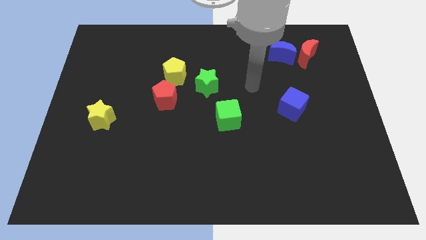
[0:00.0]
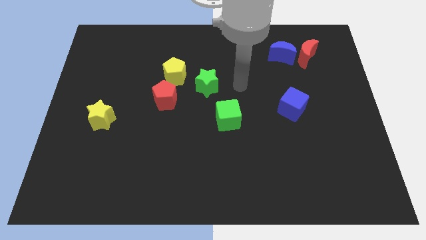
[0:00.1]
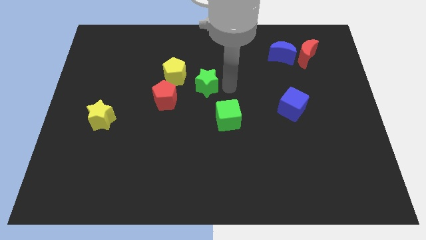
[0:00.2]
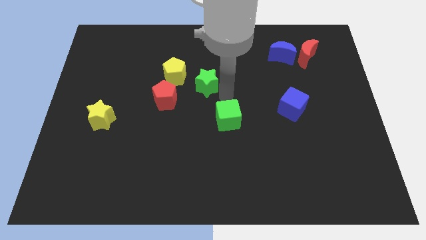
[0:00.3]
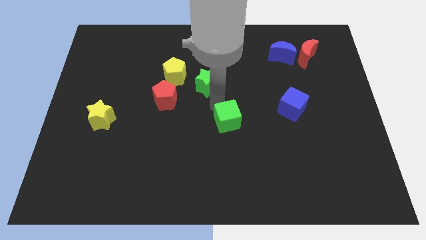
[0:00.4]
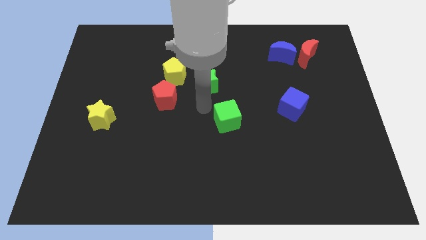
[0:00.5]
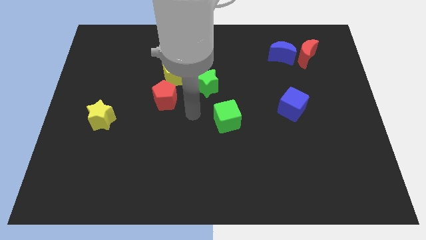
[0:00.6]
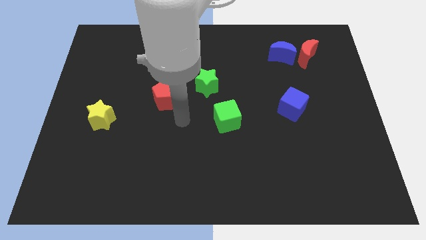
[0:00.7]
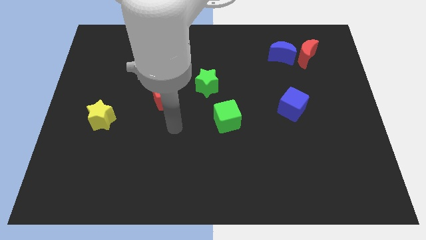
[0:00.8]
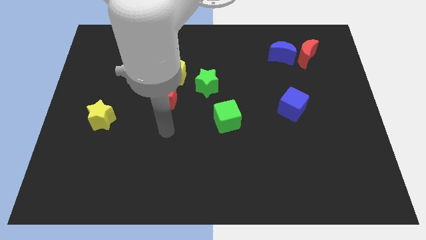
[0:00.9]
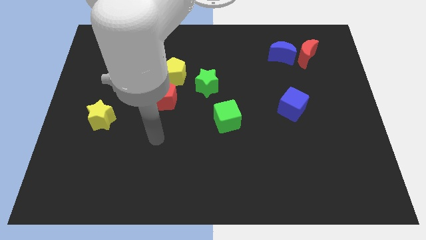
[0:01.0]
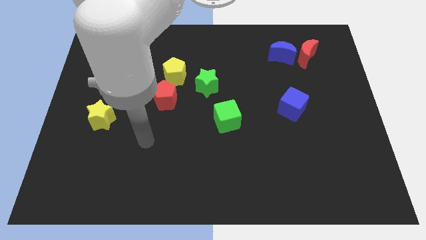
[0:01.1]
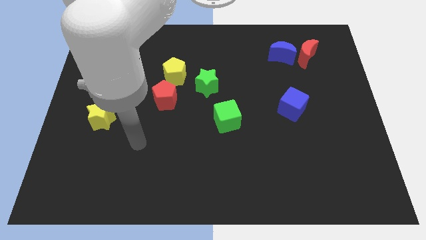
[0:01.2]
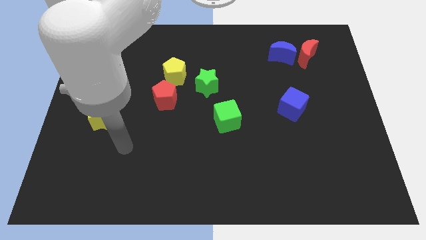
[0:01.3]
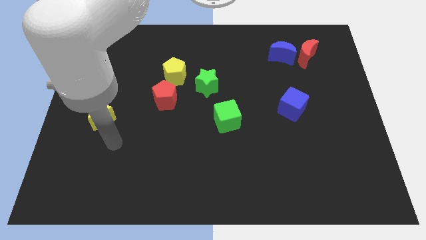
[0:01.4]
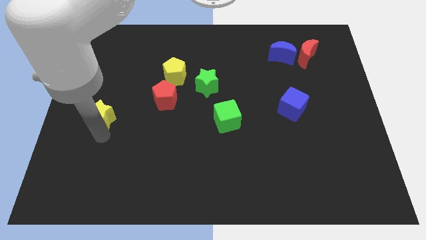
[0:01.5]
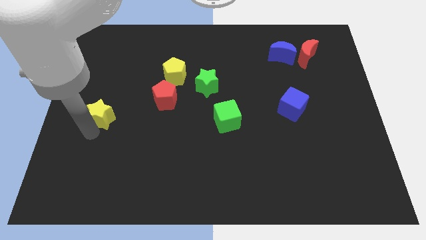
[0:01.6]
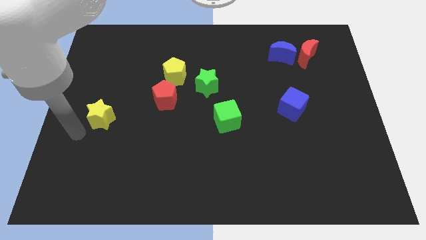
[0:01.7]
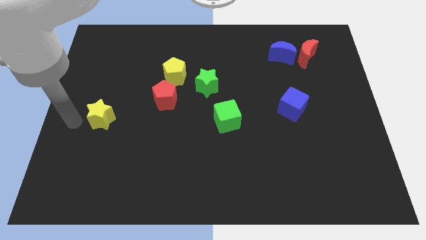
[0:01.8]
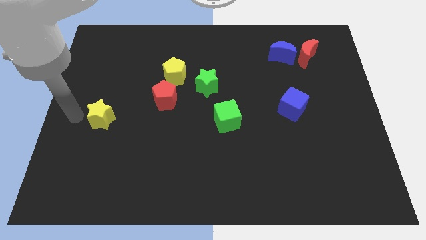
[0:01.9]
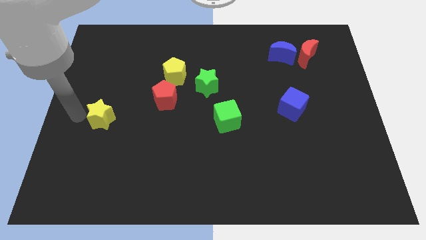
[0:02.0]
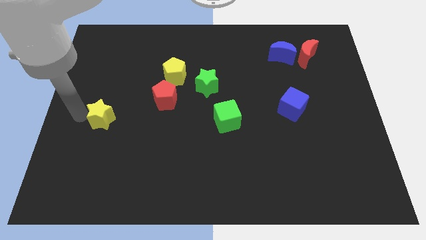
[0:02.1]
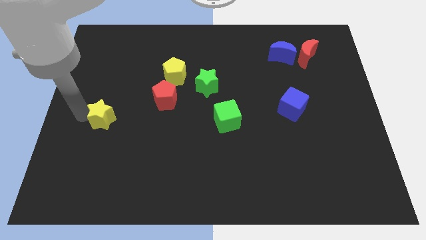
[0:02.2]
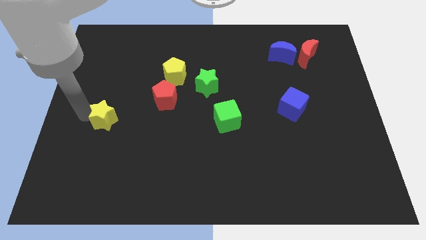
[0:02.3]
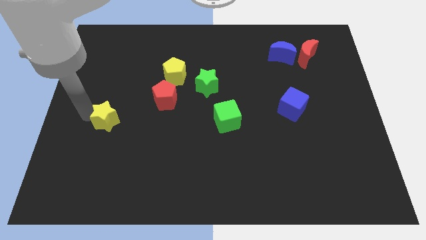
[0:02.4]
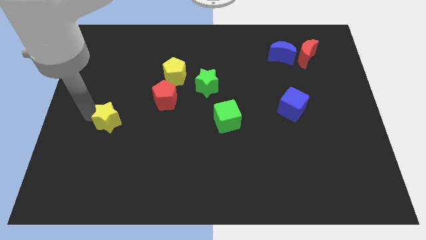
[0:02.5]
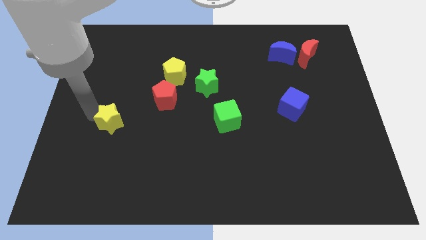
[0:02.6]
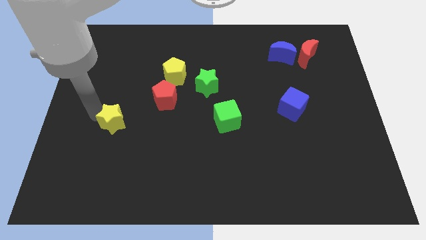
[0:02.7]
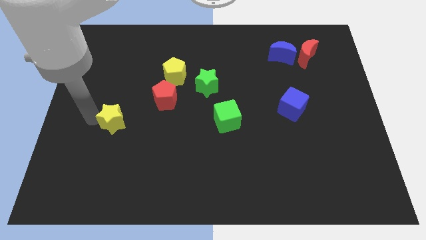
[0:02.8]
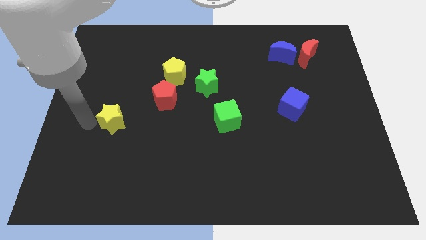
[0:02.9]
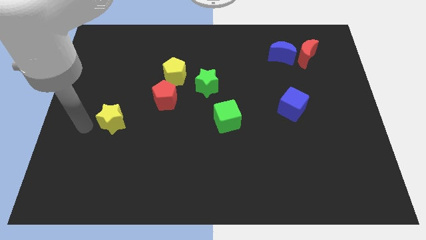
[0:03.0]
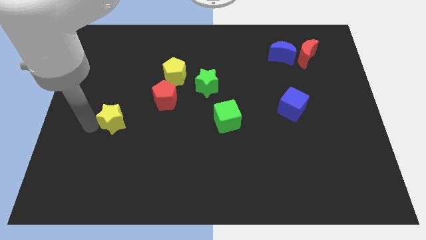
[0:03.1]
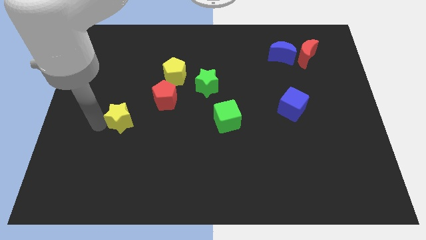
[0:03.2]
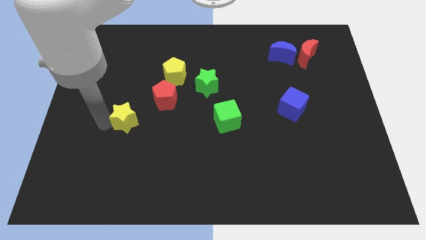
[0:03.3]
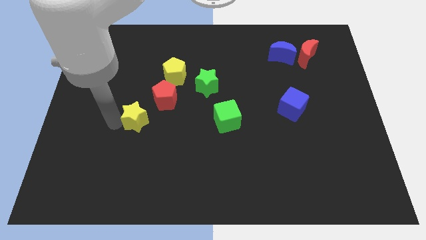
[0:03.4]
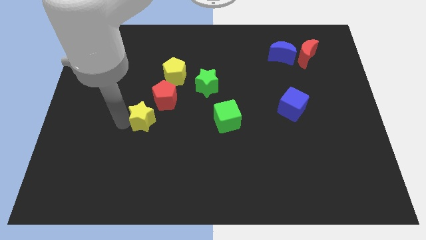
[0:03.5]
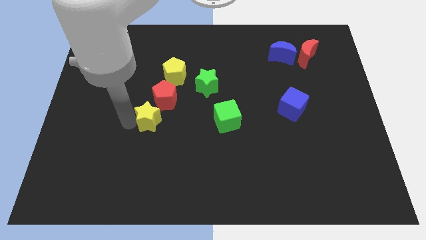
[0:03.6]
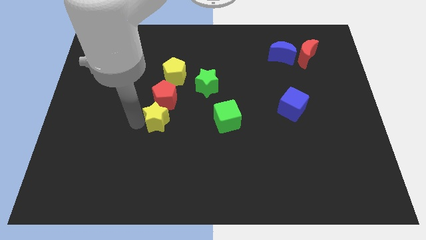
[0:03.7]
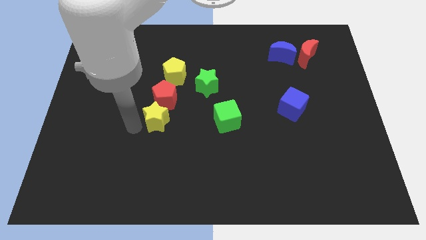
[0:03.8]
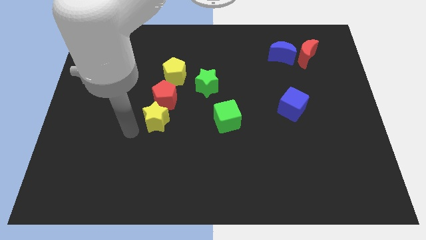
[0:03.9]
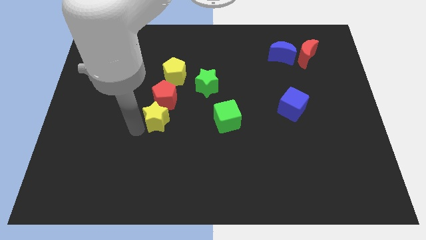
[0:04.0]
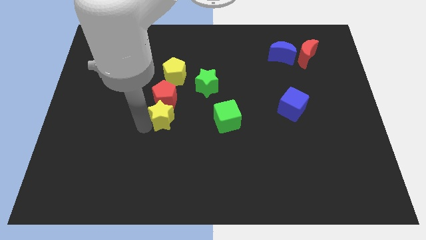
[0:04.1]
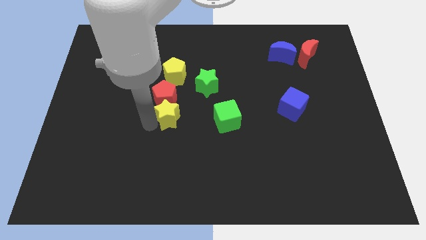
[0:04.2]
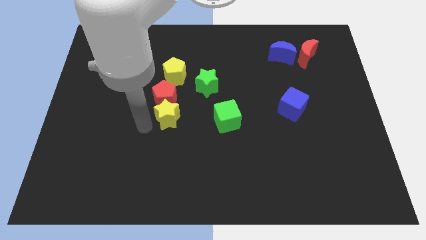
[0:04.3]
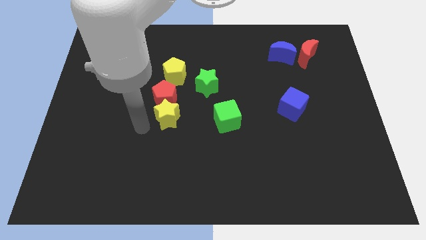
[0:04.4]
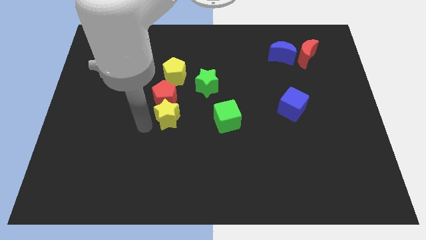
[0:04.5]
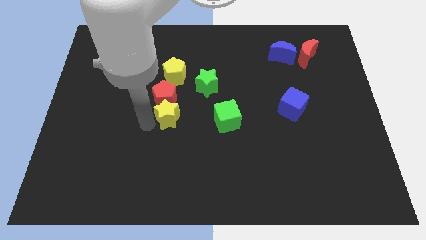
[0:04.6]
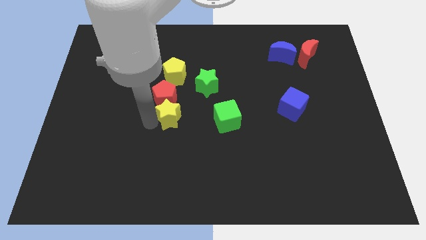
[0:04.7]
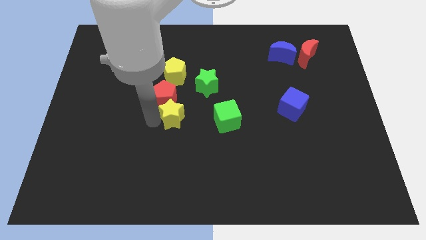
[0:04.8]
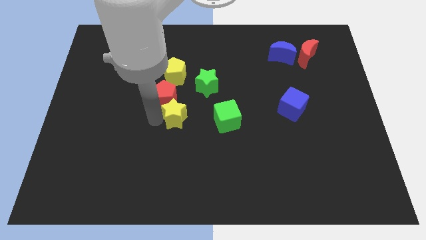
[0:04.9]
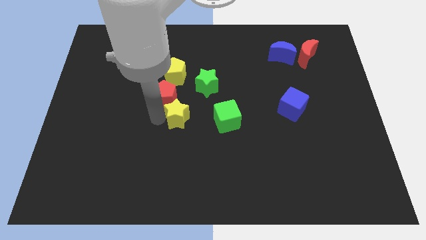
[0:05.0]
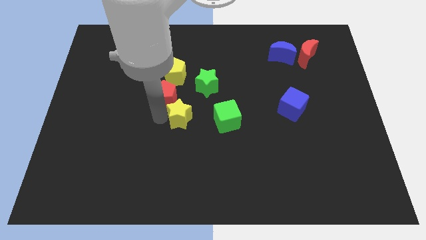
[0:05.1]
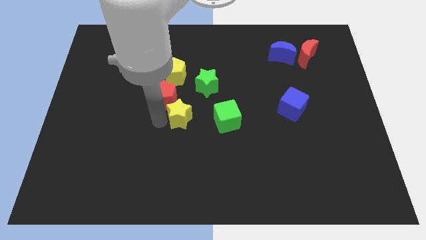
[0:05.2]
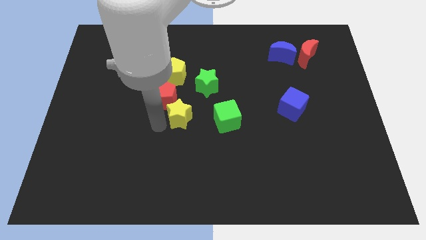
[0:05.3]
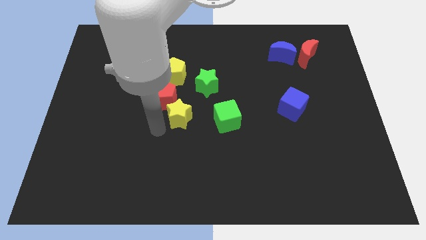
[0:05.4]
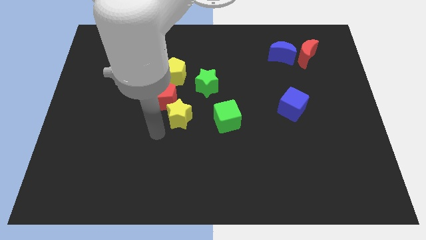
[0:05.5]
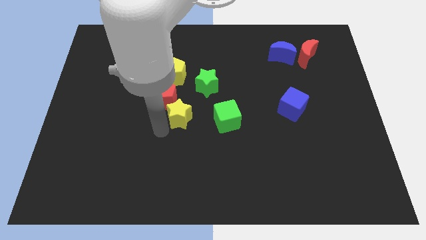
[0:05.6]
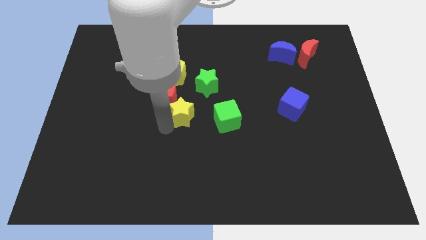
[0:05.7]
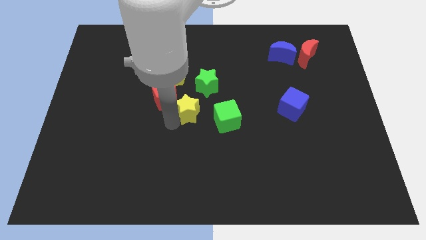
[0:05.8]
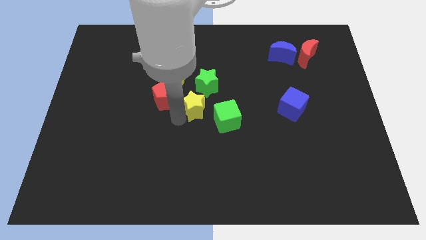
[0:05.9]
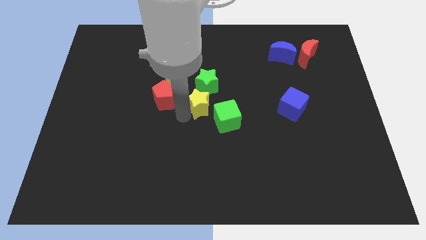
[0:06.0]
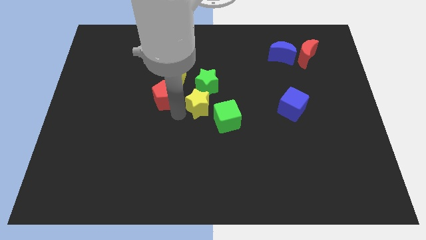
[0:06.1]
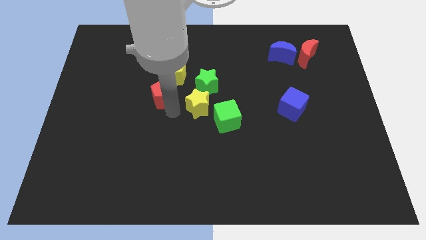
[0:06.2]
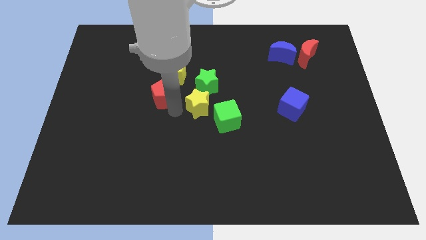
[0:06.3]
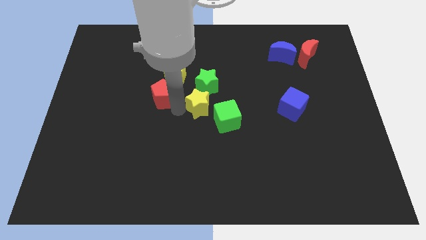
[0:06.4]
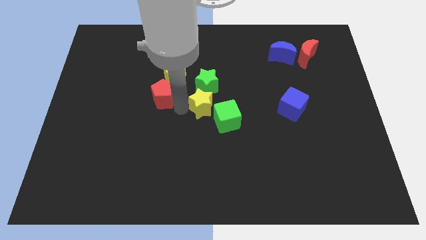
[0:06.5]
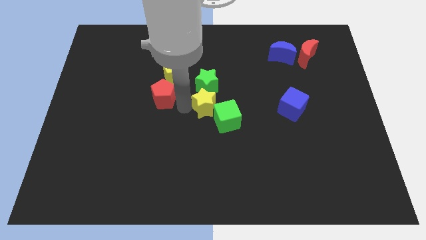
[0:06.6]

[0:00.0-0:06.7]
move the yellow star diagonally down and to the right of the green star

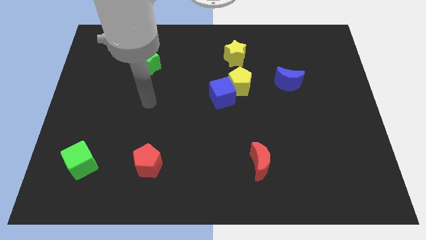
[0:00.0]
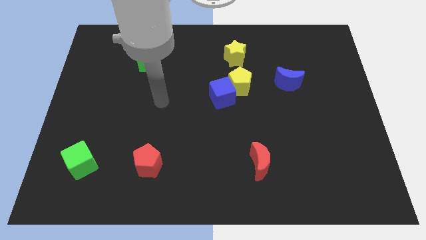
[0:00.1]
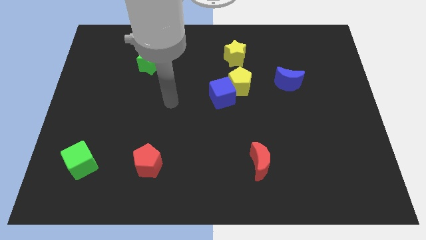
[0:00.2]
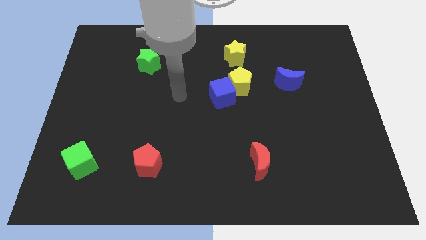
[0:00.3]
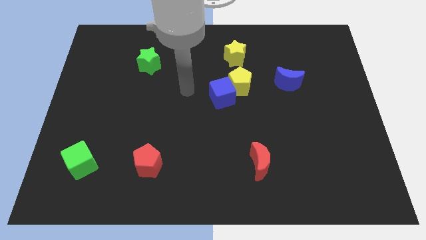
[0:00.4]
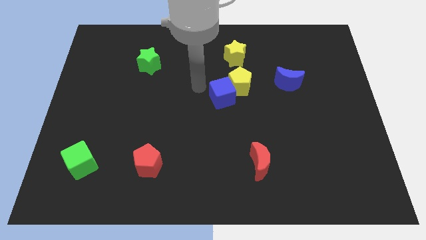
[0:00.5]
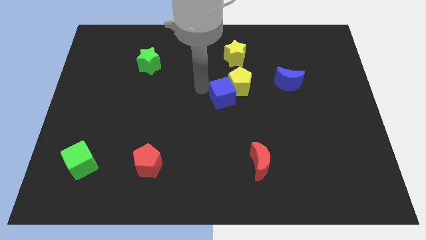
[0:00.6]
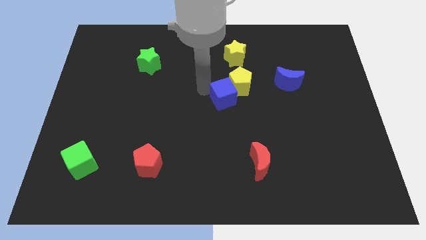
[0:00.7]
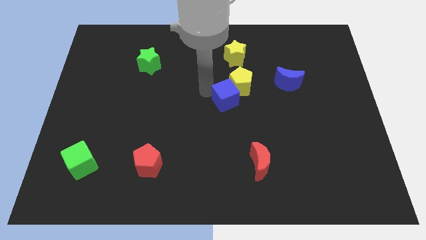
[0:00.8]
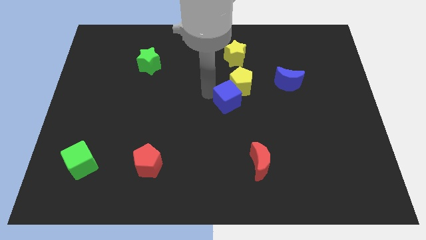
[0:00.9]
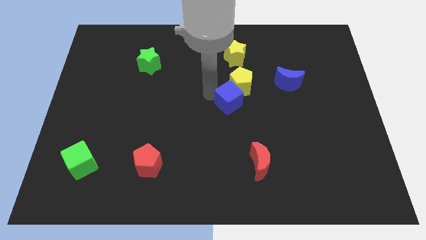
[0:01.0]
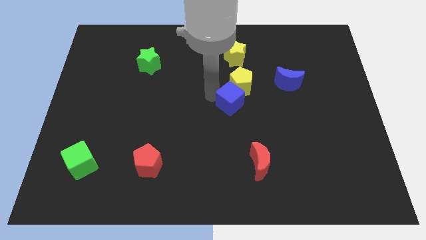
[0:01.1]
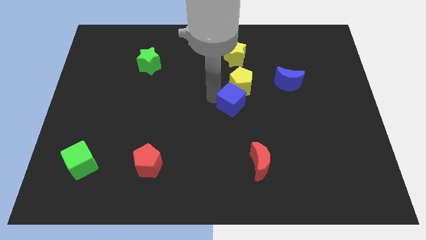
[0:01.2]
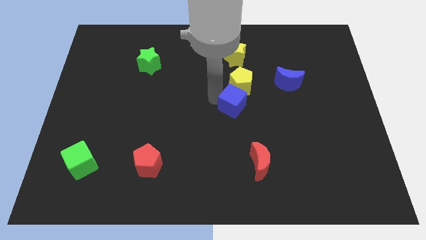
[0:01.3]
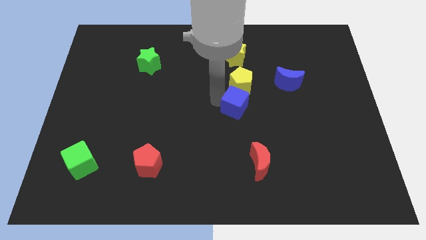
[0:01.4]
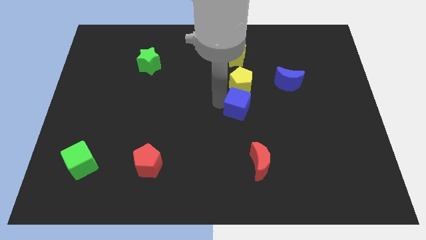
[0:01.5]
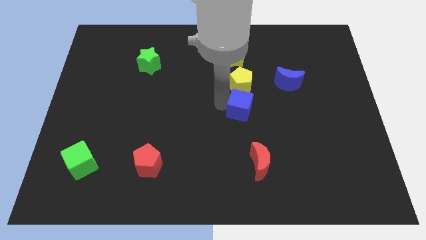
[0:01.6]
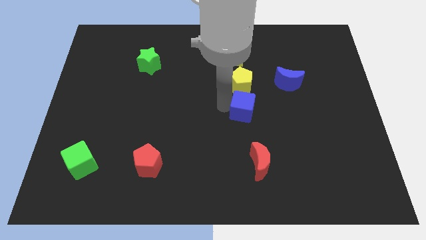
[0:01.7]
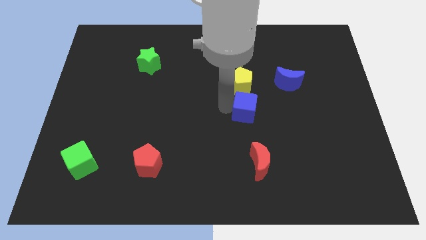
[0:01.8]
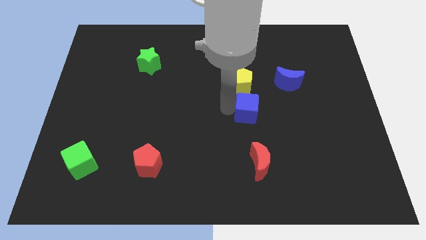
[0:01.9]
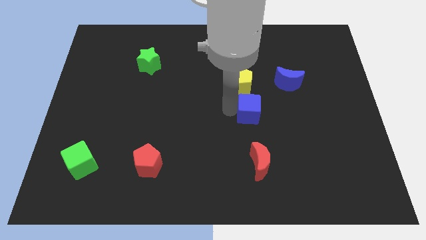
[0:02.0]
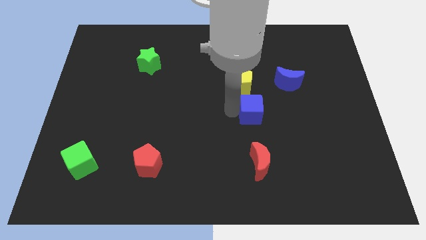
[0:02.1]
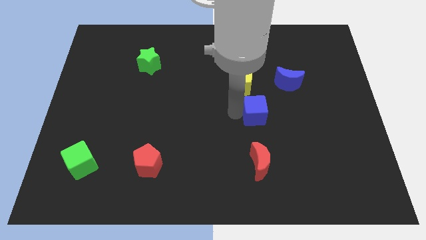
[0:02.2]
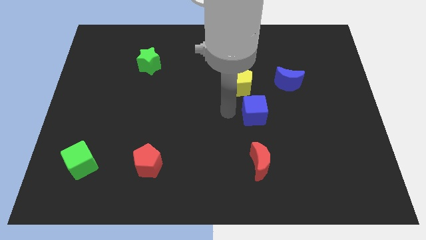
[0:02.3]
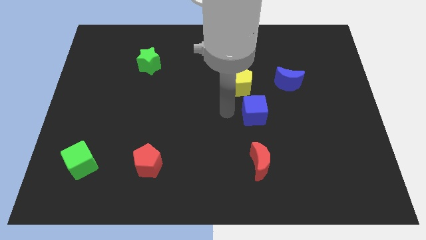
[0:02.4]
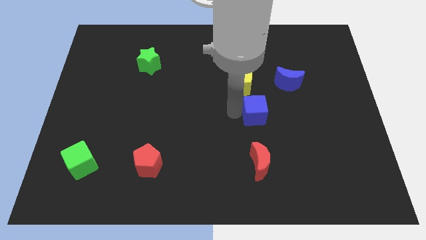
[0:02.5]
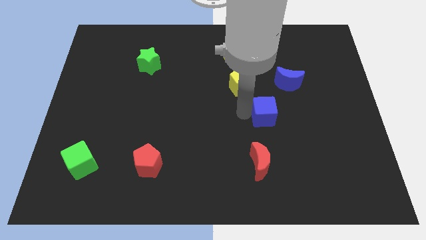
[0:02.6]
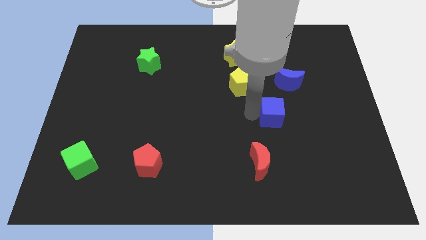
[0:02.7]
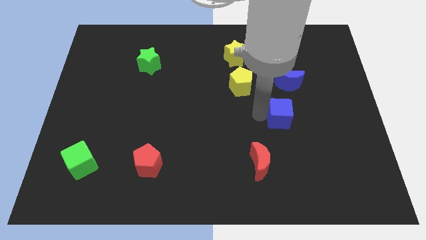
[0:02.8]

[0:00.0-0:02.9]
move the blue cube to the bottom of the blue moon
